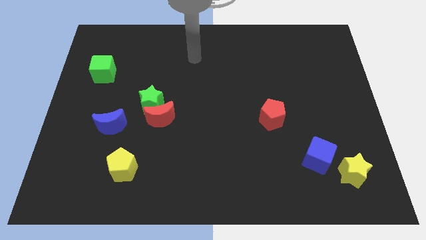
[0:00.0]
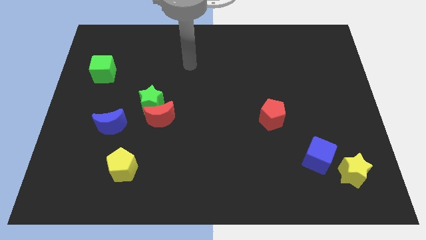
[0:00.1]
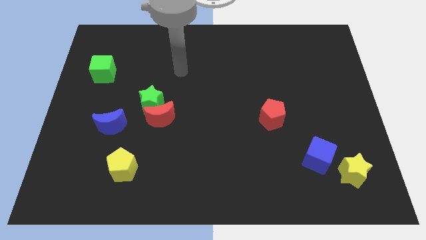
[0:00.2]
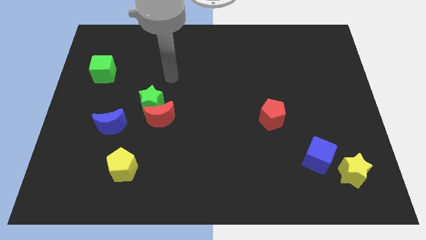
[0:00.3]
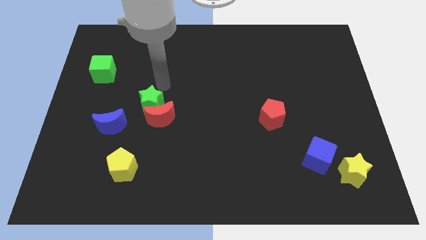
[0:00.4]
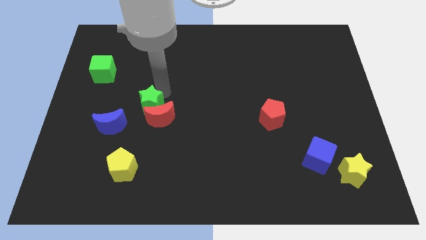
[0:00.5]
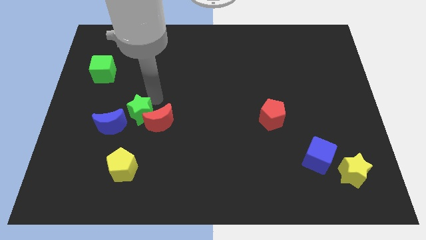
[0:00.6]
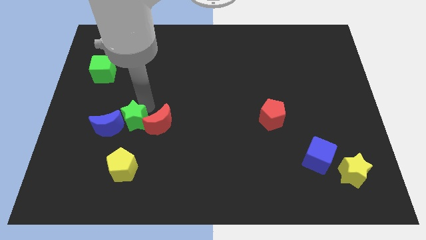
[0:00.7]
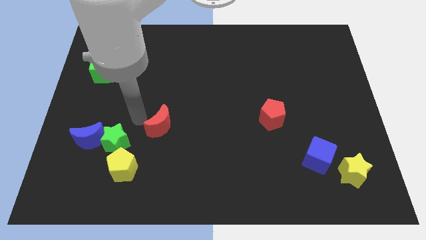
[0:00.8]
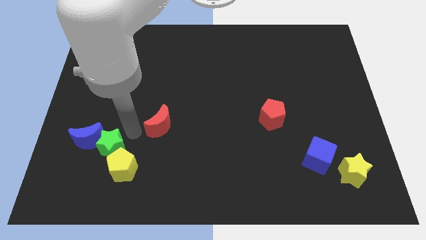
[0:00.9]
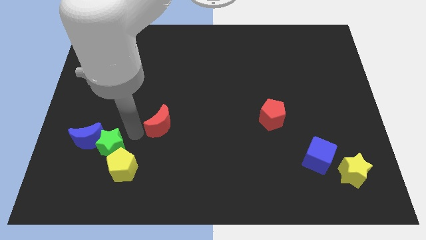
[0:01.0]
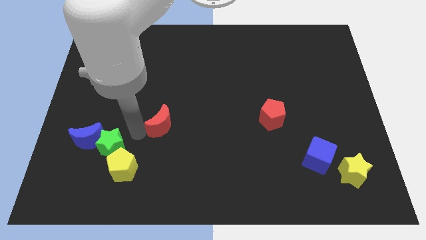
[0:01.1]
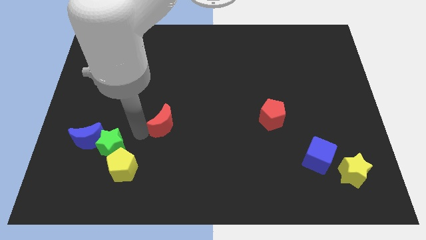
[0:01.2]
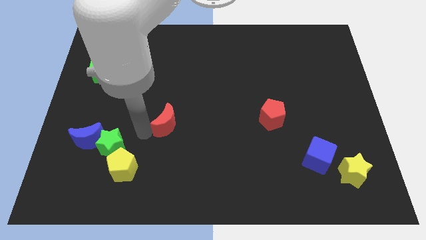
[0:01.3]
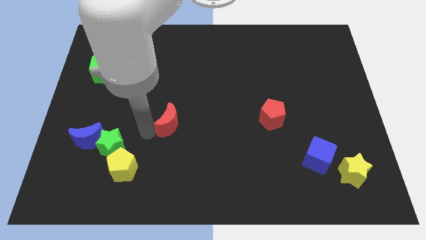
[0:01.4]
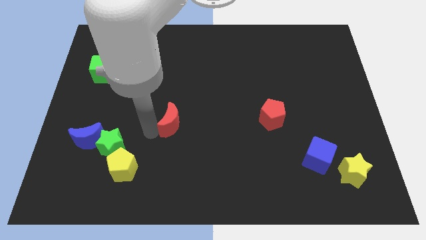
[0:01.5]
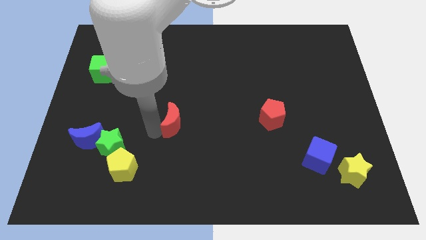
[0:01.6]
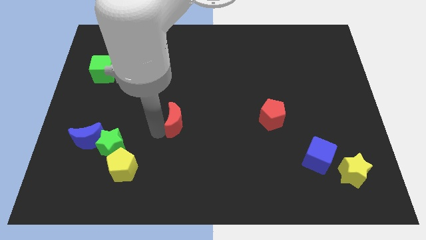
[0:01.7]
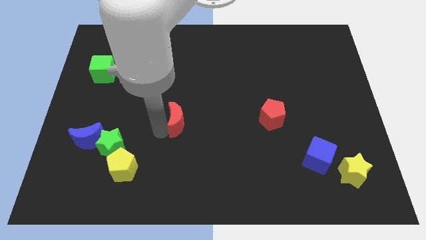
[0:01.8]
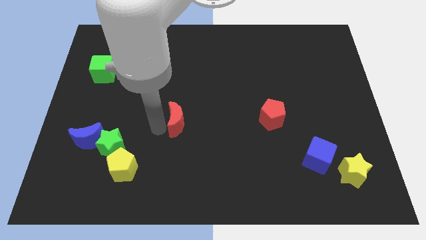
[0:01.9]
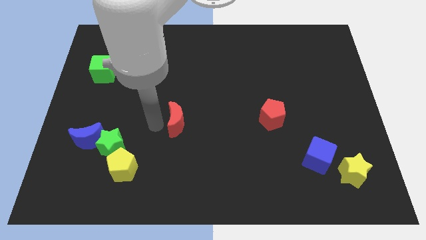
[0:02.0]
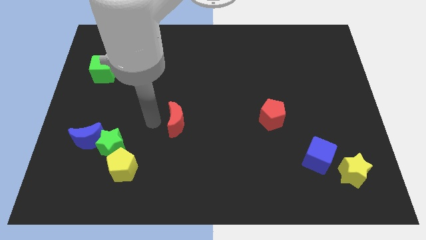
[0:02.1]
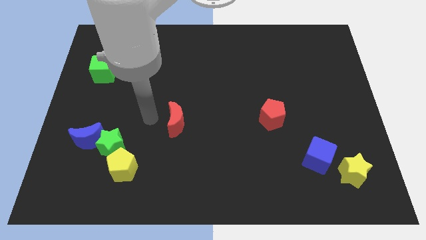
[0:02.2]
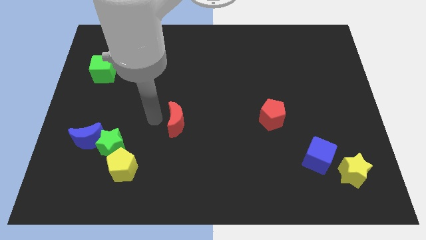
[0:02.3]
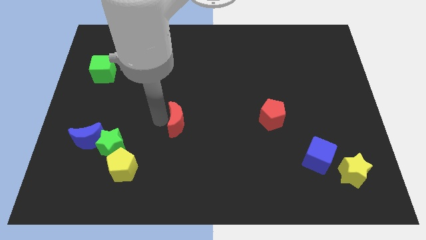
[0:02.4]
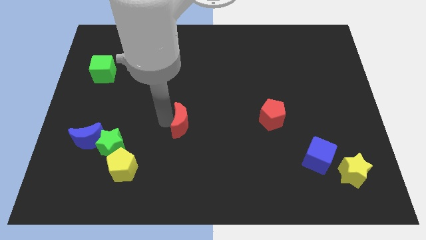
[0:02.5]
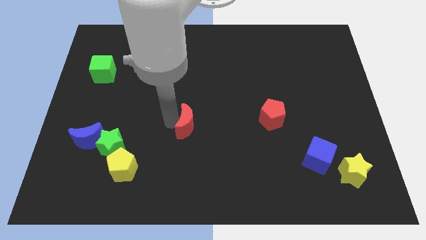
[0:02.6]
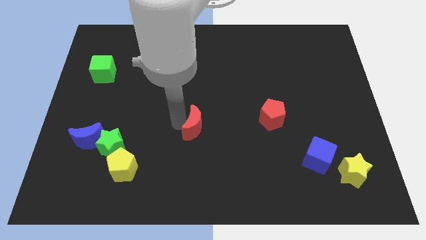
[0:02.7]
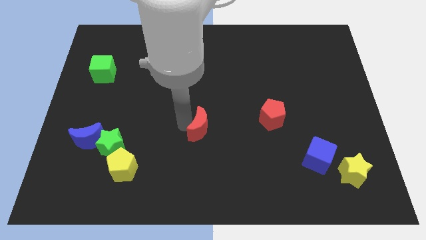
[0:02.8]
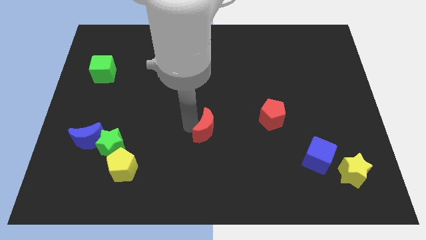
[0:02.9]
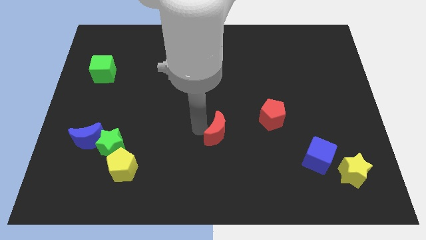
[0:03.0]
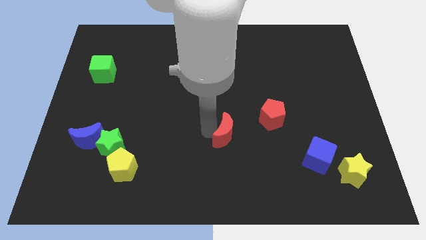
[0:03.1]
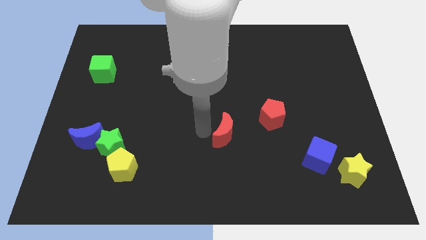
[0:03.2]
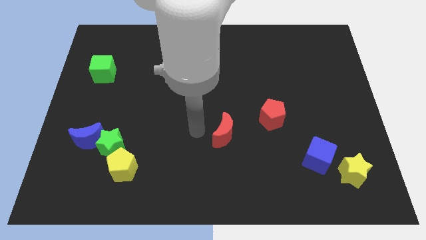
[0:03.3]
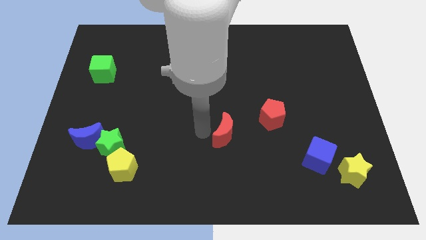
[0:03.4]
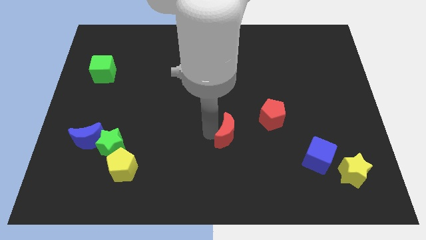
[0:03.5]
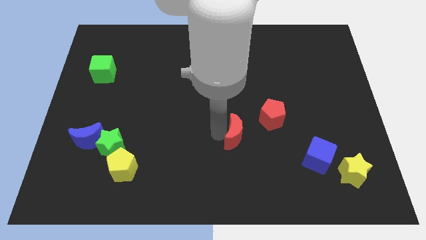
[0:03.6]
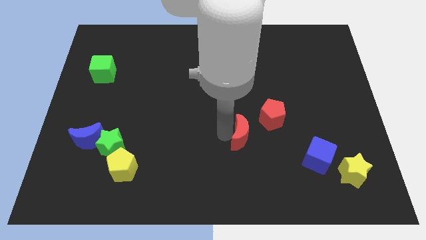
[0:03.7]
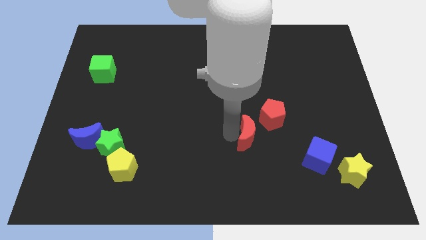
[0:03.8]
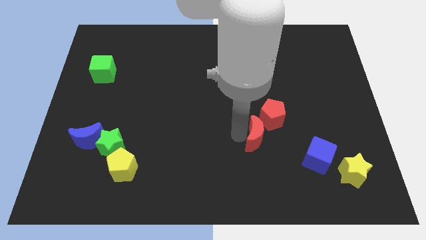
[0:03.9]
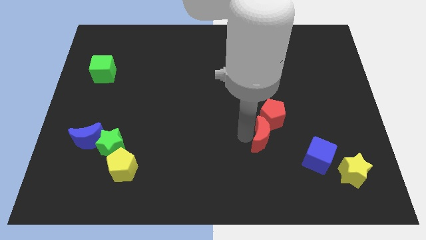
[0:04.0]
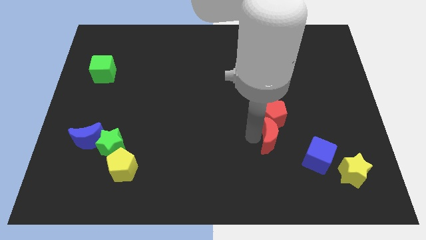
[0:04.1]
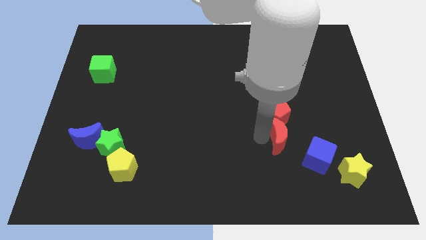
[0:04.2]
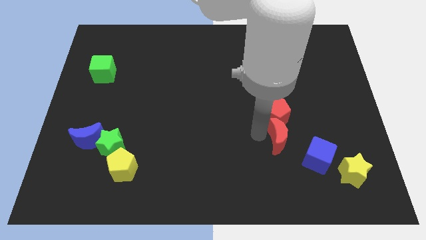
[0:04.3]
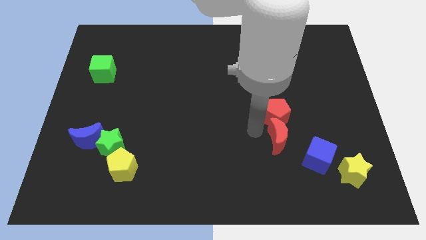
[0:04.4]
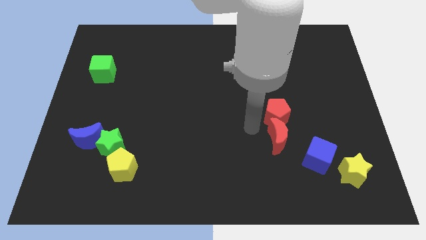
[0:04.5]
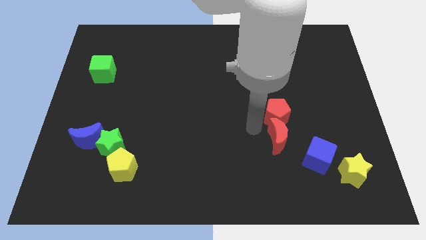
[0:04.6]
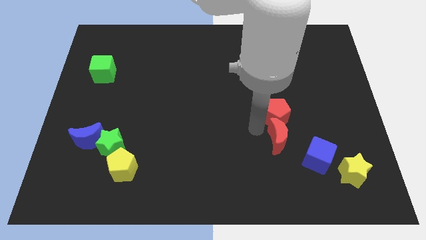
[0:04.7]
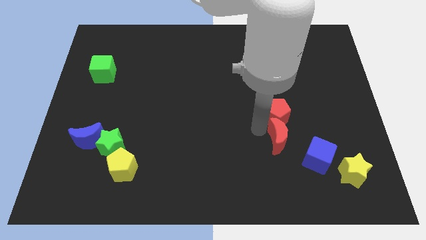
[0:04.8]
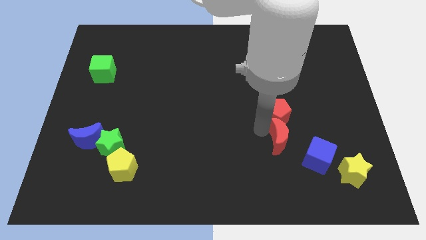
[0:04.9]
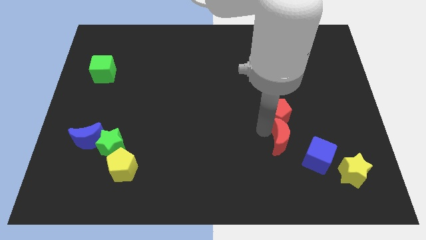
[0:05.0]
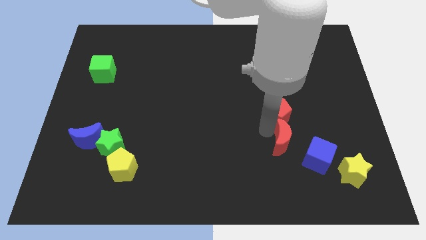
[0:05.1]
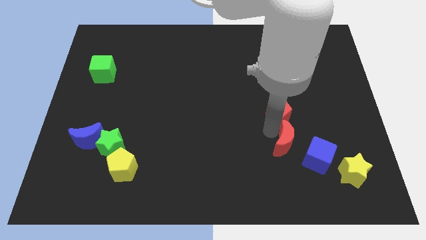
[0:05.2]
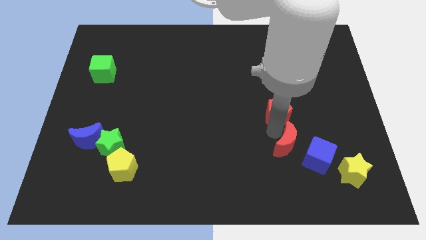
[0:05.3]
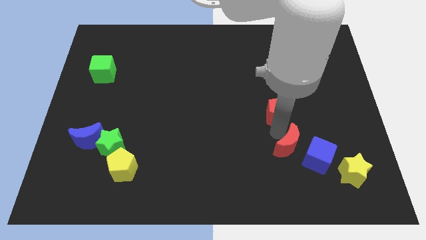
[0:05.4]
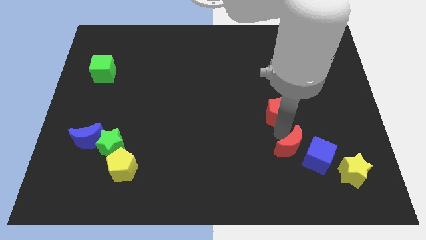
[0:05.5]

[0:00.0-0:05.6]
move the red moon next to the blue cube

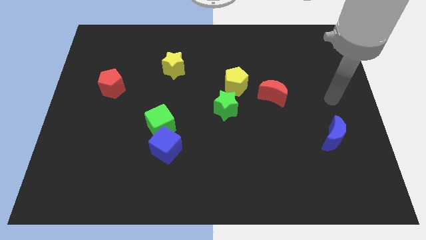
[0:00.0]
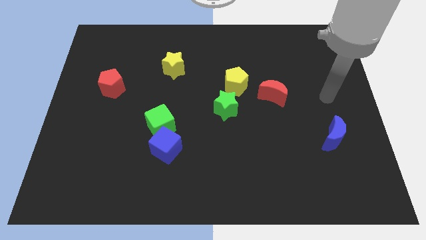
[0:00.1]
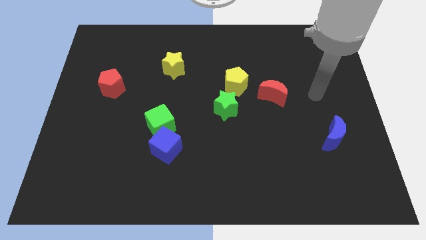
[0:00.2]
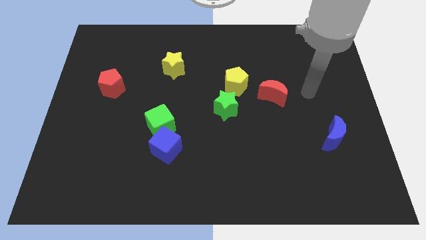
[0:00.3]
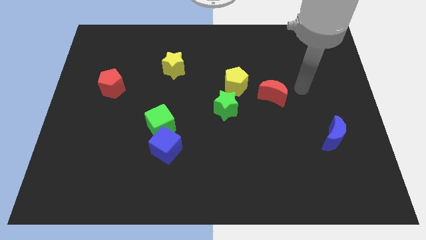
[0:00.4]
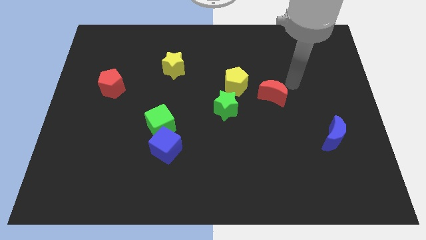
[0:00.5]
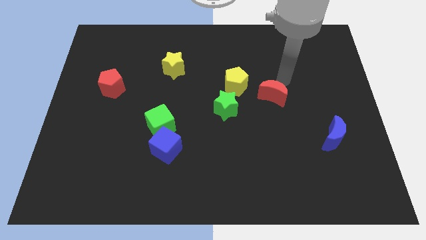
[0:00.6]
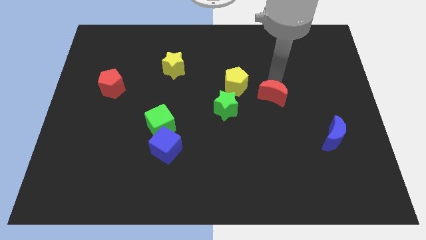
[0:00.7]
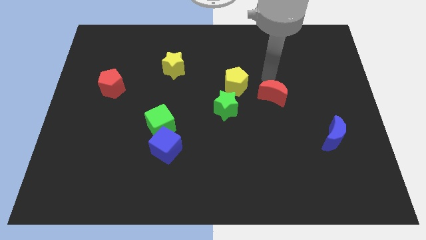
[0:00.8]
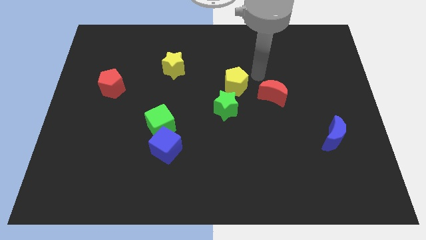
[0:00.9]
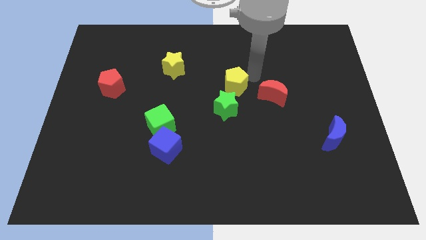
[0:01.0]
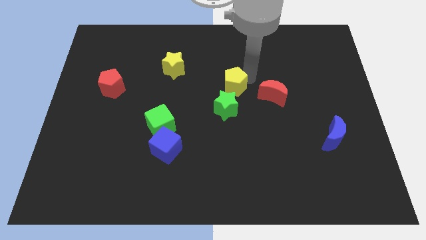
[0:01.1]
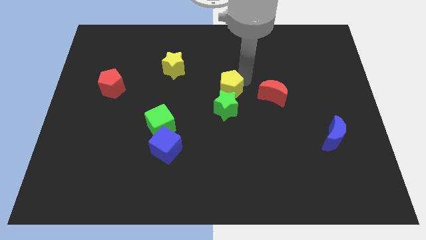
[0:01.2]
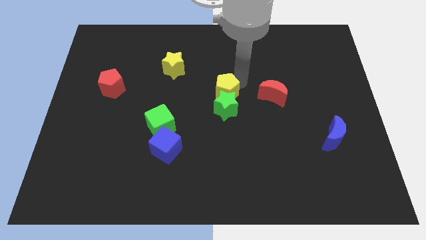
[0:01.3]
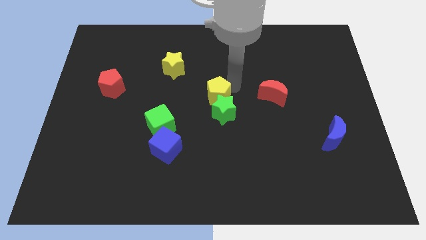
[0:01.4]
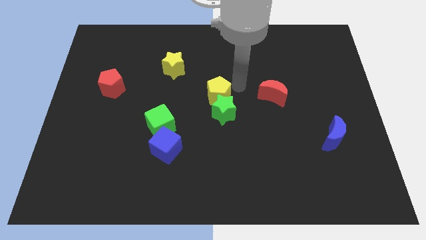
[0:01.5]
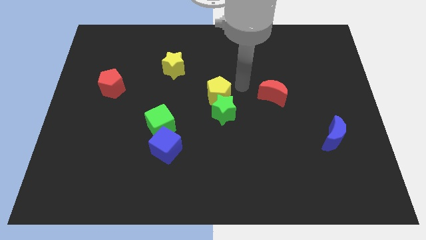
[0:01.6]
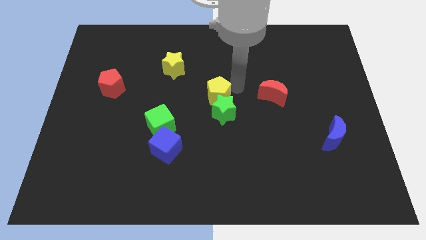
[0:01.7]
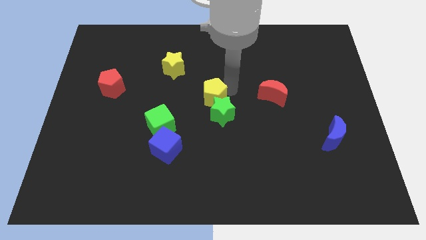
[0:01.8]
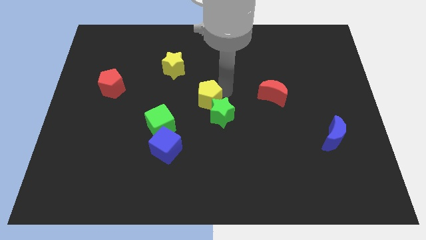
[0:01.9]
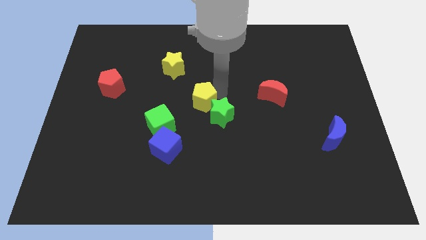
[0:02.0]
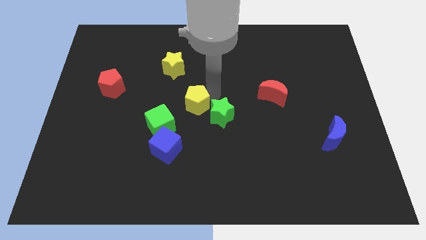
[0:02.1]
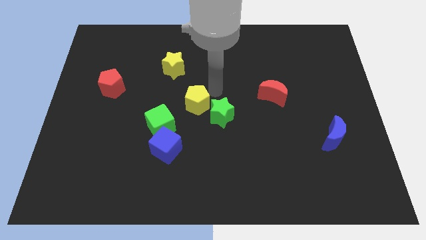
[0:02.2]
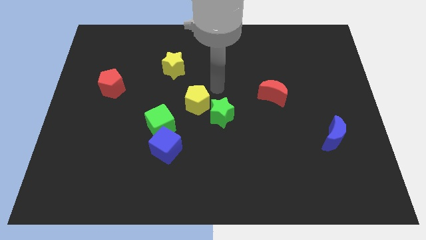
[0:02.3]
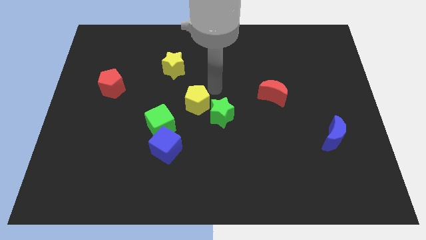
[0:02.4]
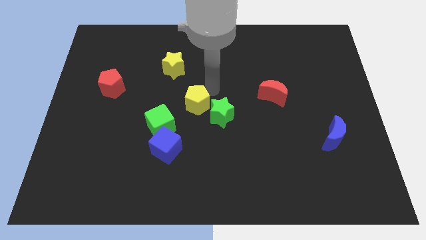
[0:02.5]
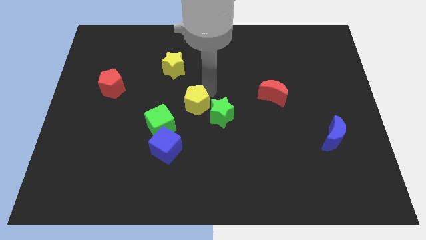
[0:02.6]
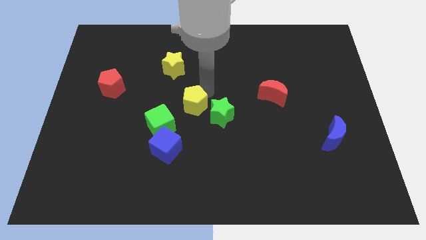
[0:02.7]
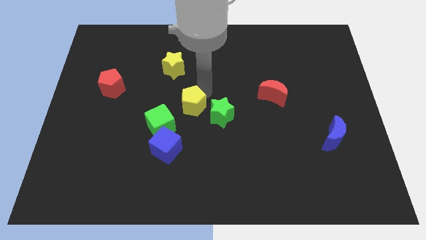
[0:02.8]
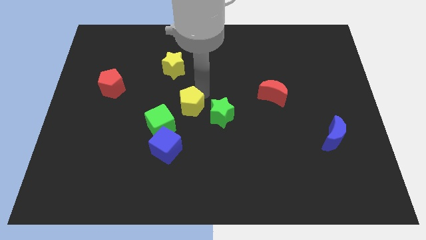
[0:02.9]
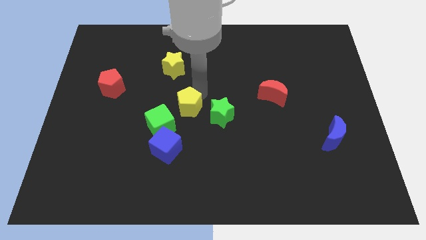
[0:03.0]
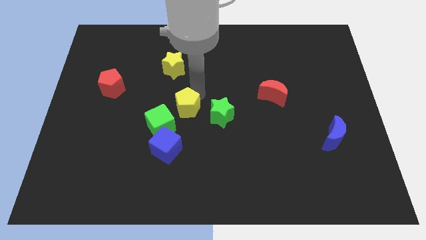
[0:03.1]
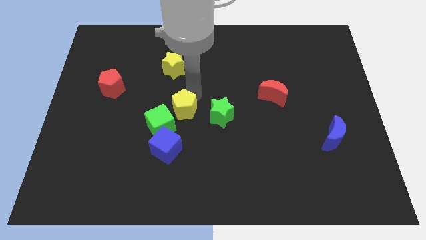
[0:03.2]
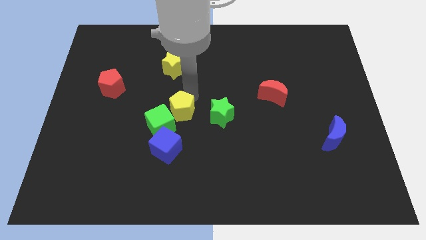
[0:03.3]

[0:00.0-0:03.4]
push the yellow pentagon to the green cube
